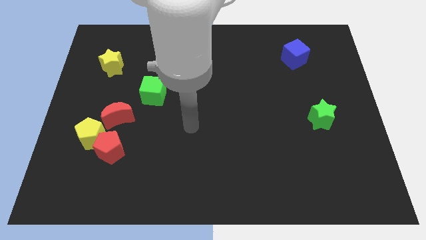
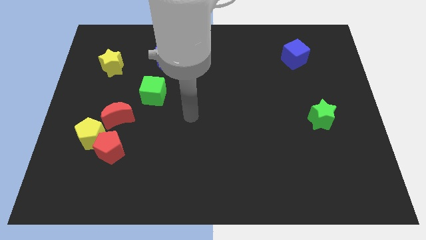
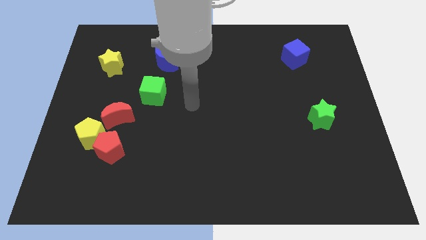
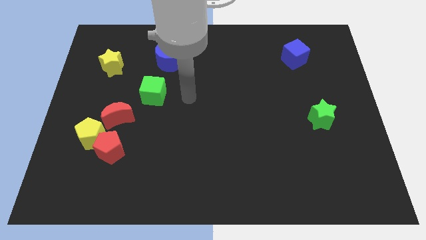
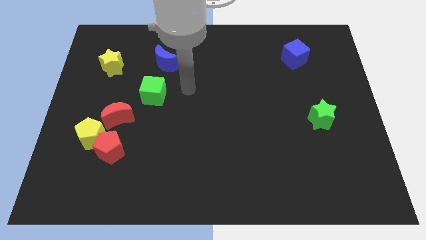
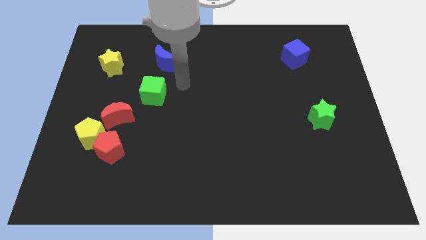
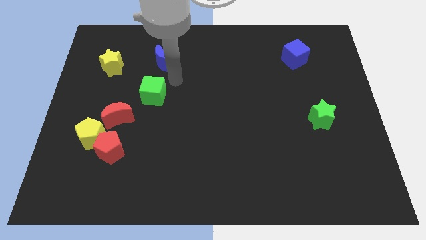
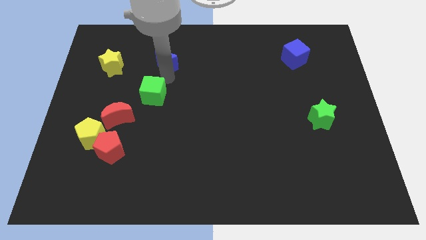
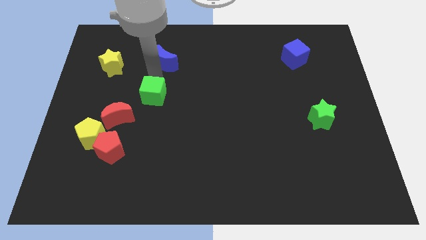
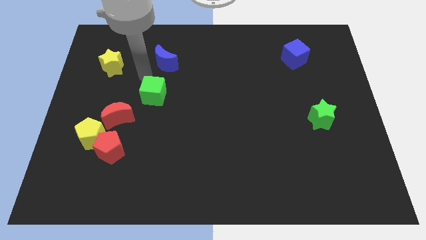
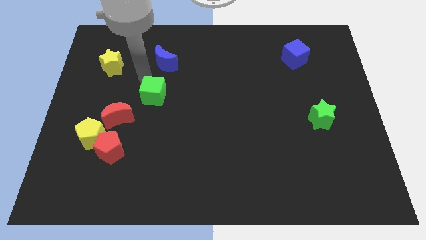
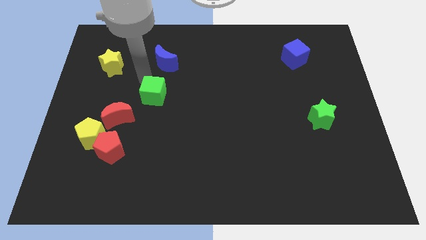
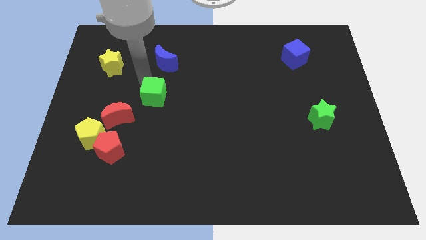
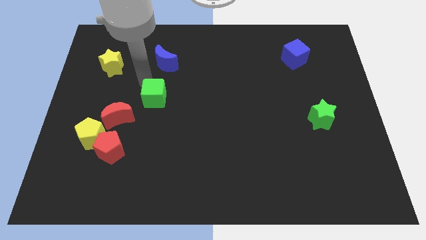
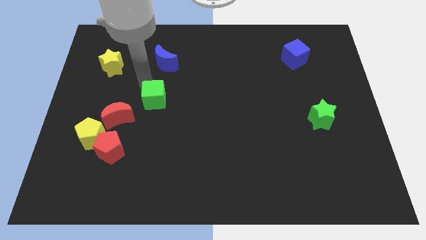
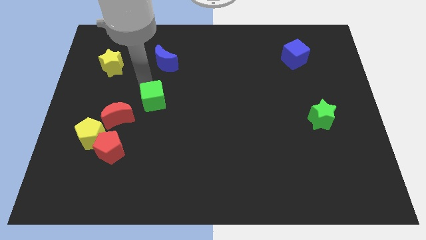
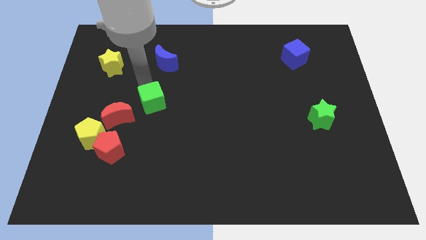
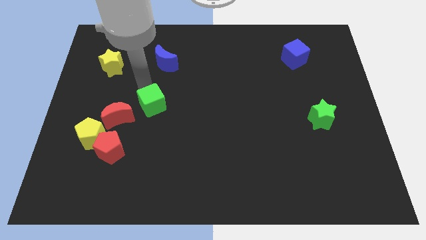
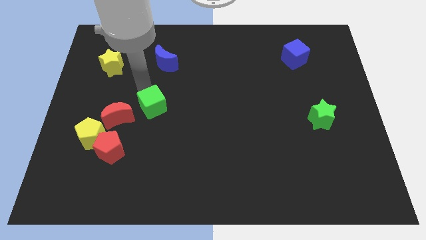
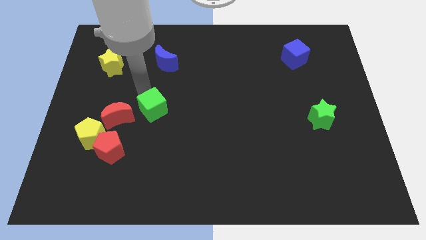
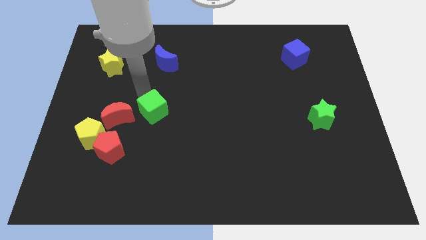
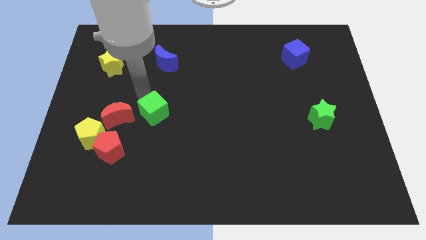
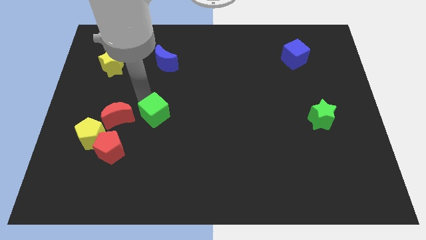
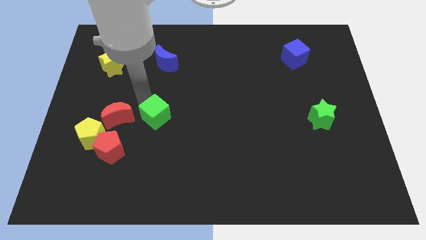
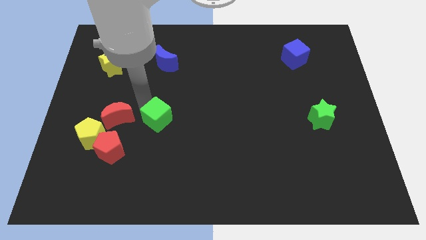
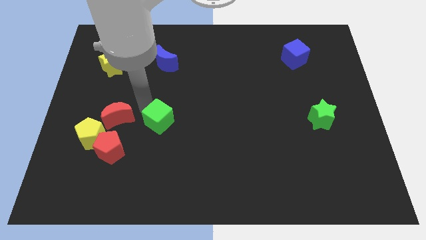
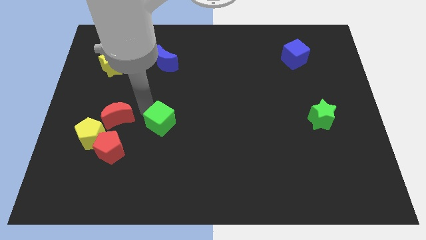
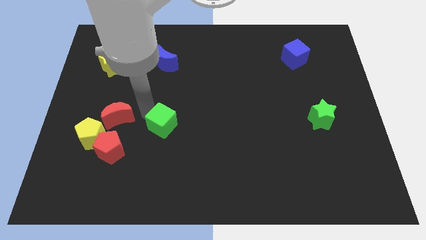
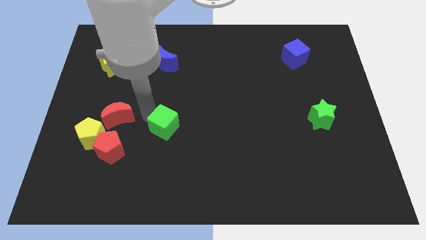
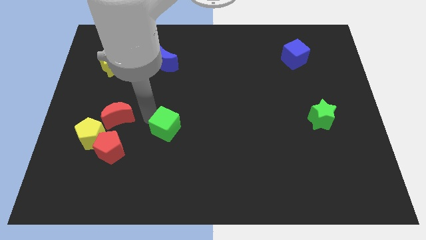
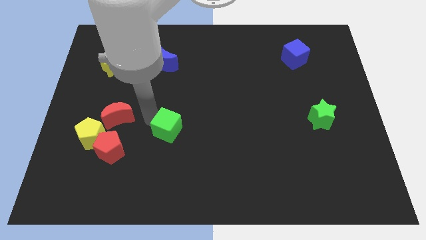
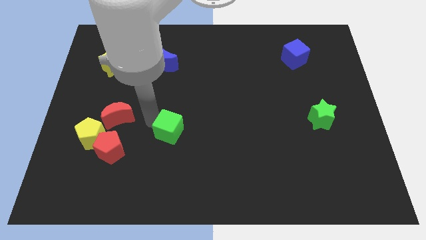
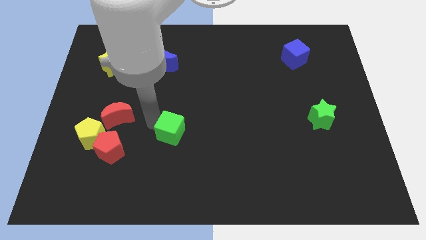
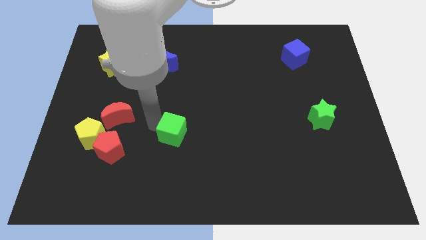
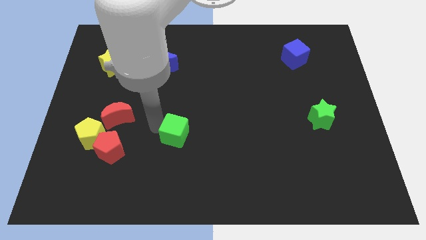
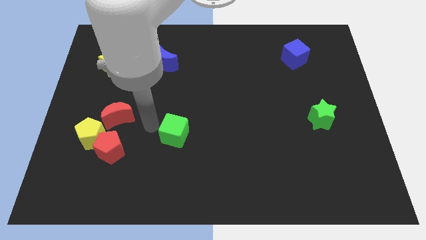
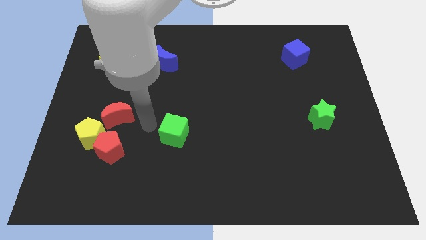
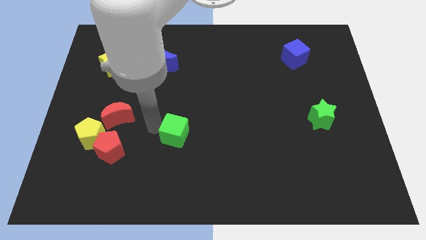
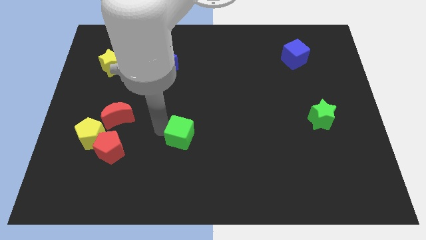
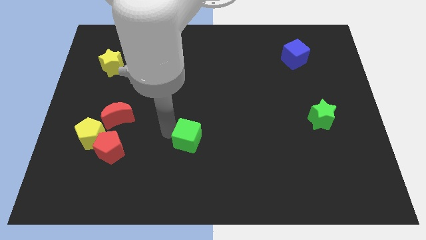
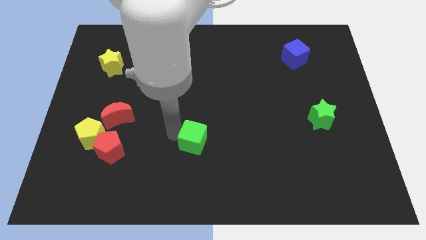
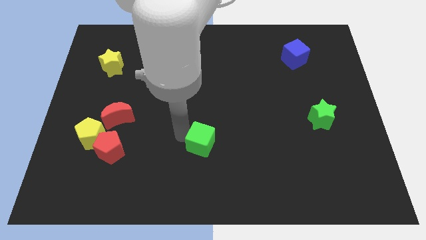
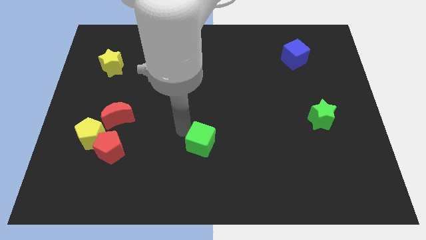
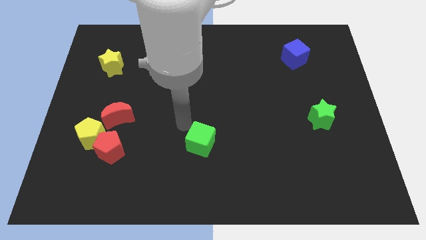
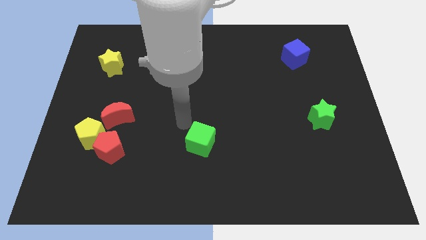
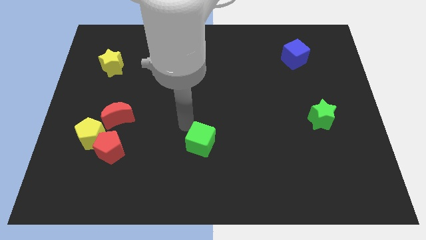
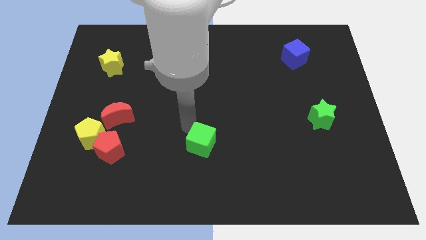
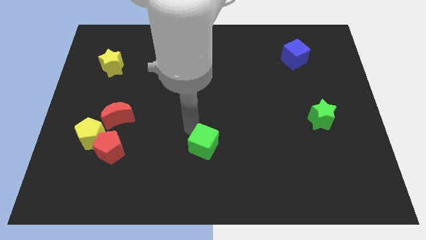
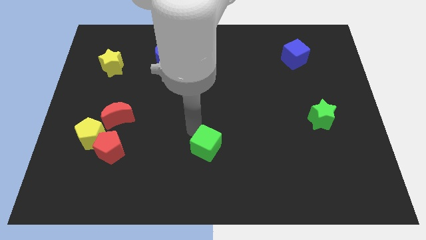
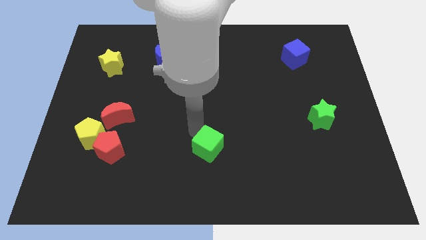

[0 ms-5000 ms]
slide the green cube downwards and right diagonally

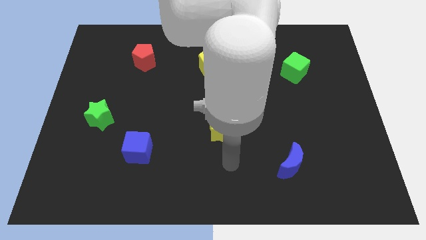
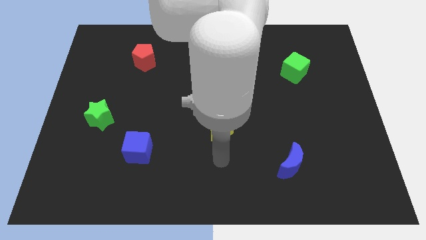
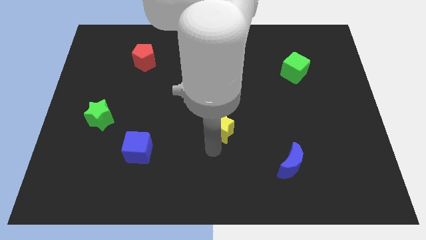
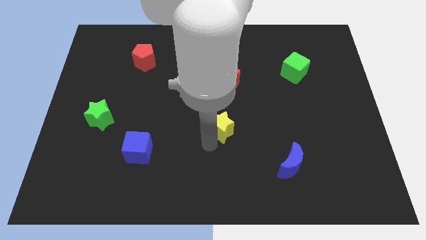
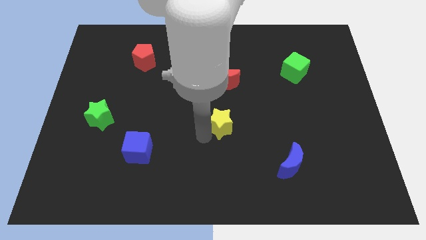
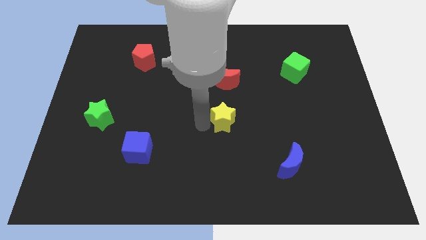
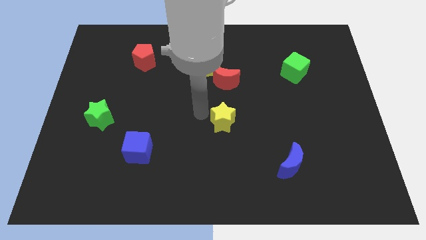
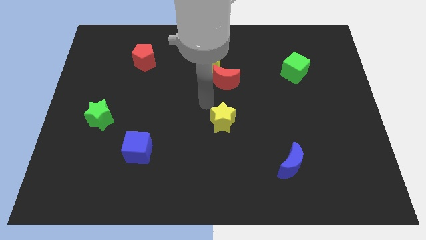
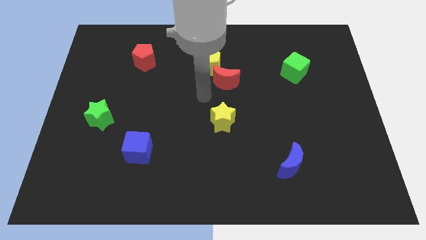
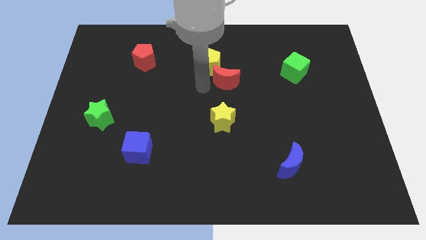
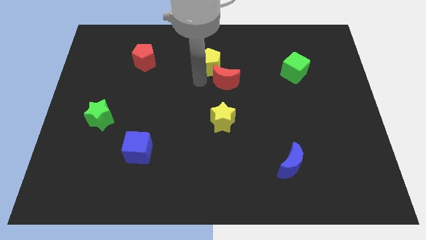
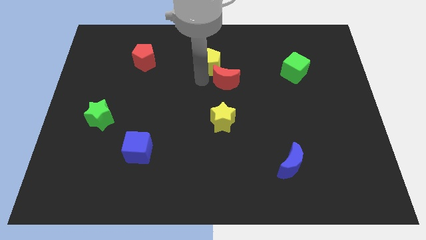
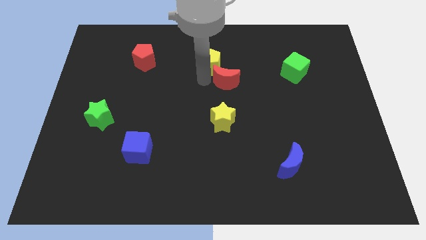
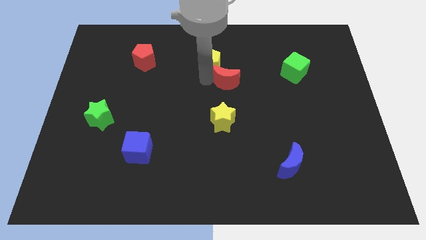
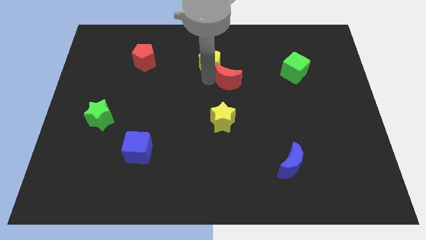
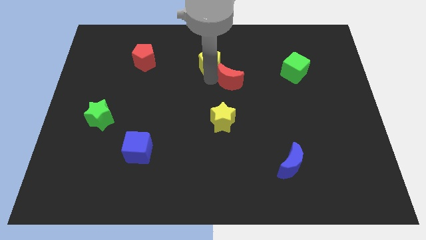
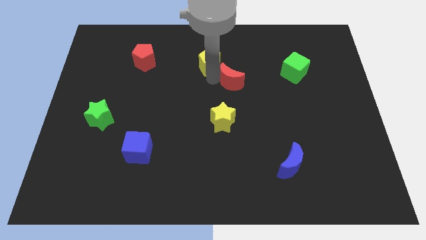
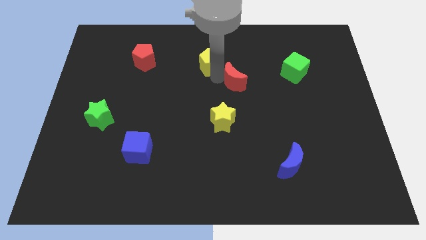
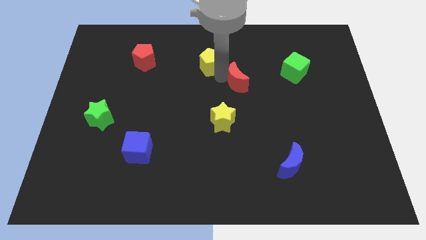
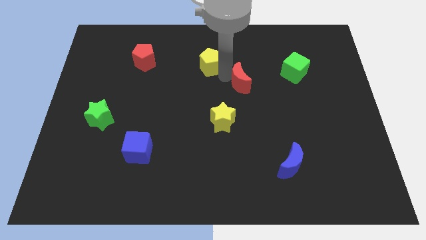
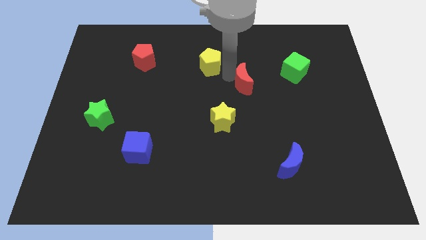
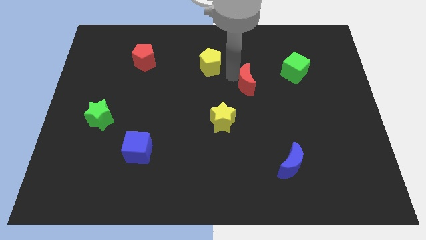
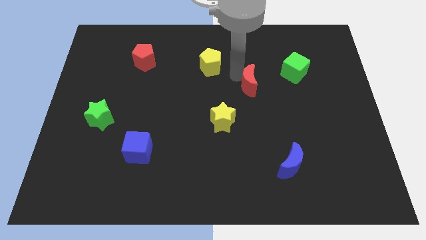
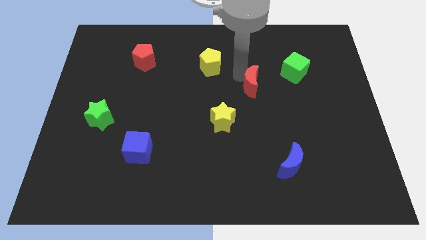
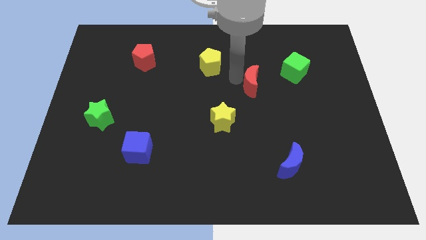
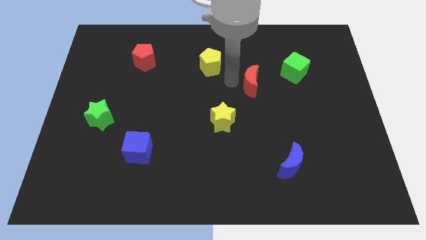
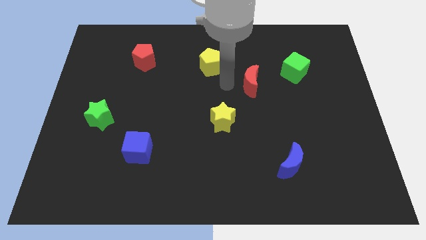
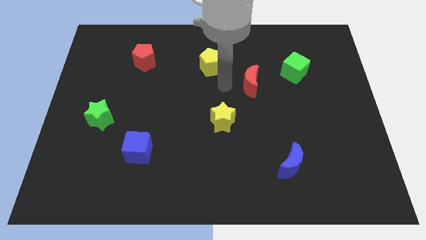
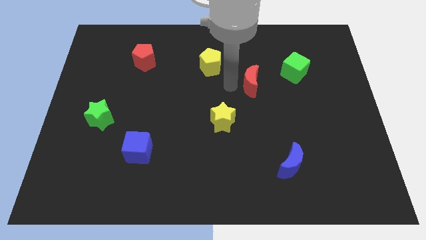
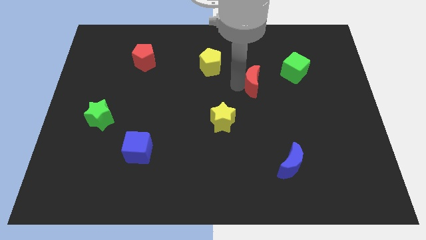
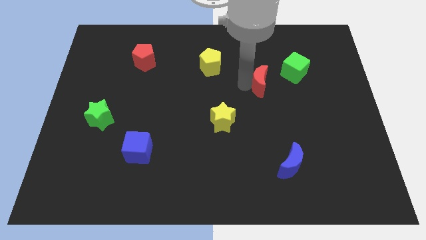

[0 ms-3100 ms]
slide the red moon a bit right
